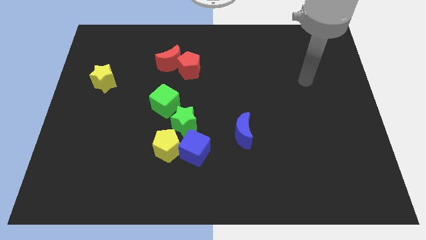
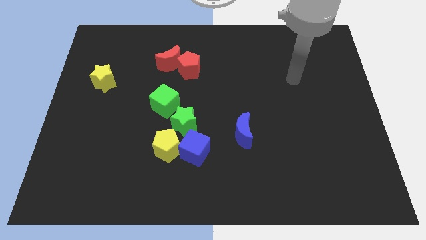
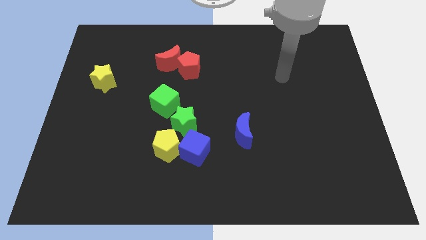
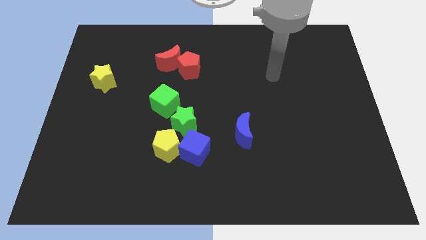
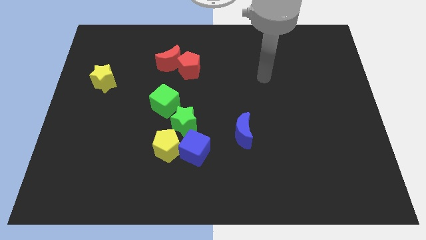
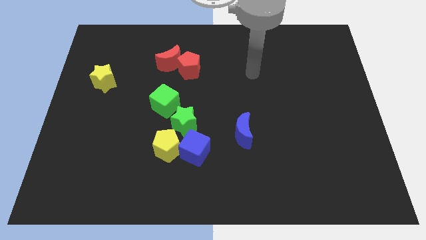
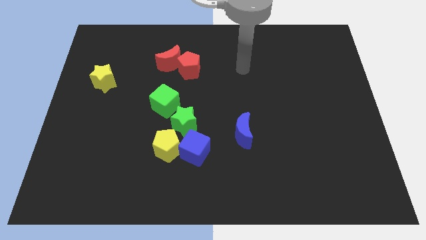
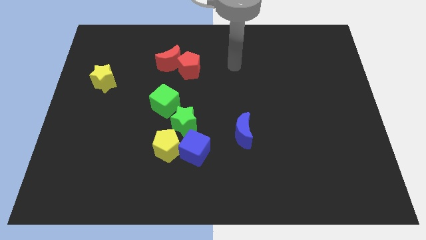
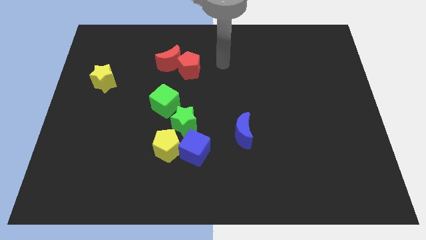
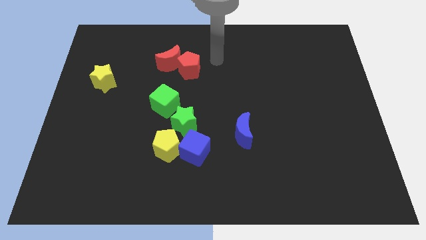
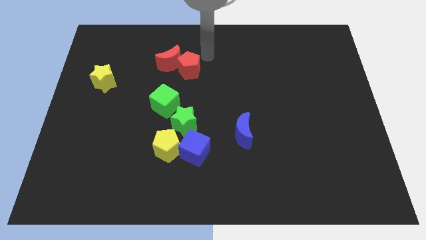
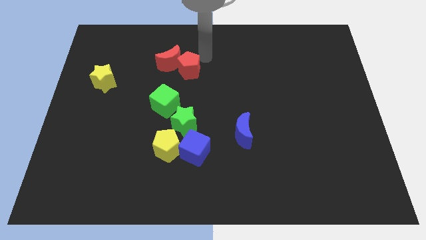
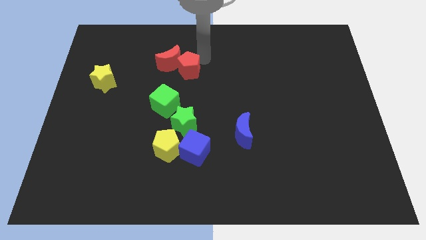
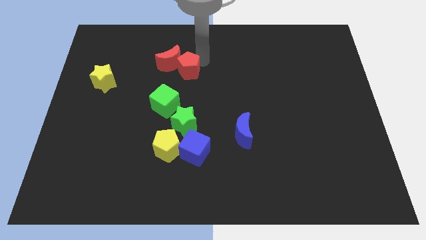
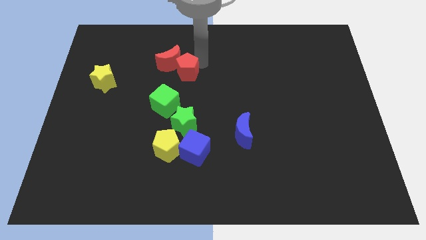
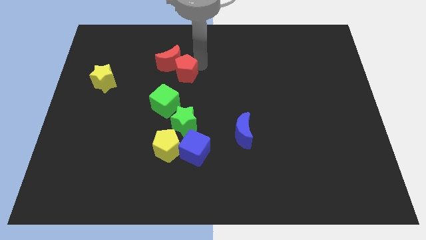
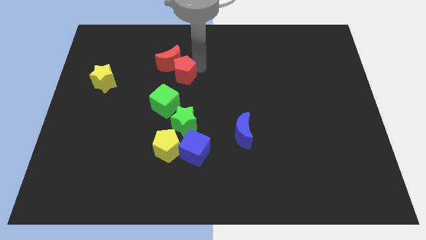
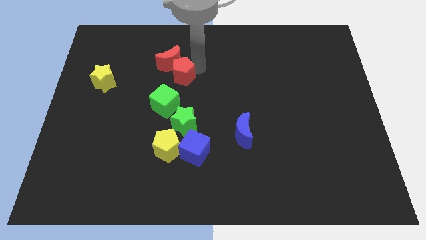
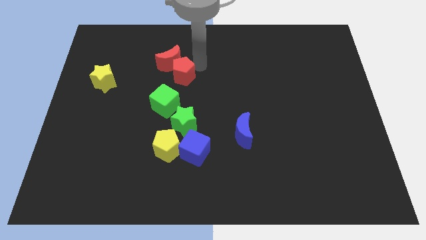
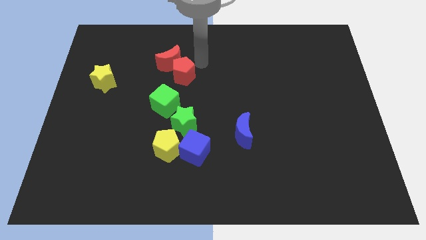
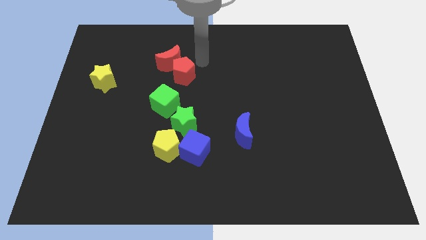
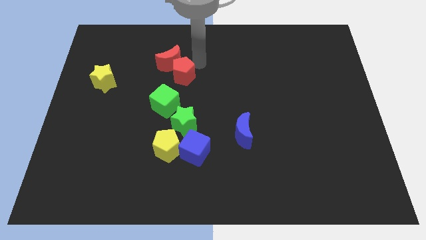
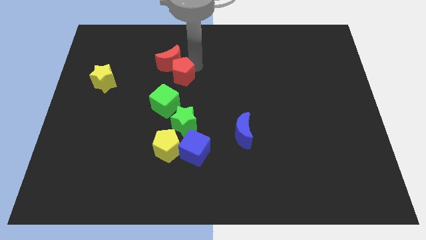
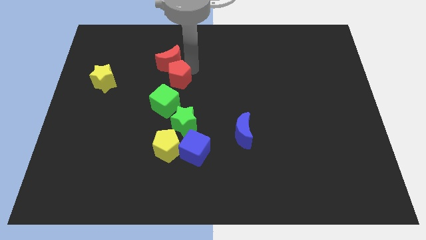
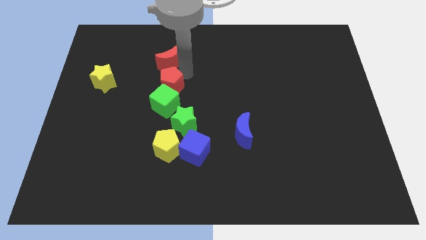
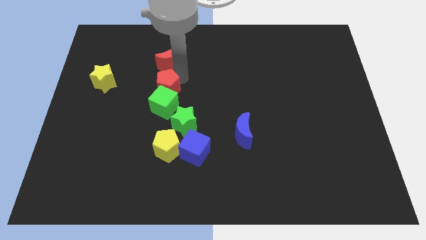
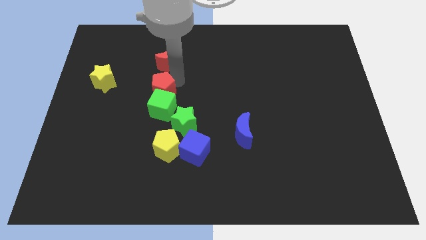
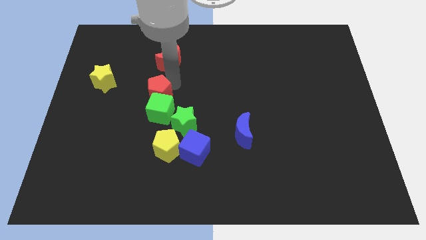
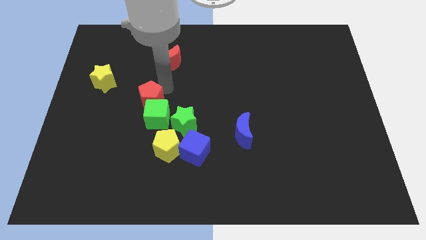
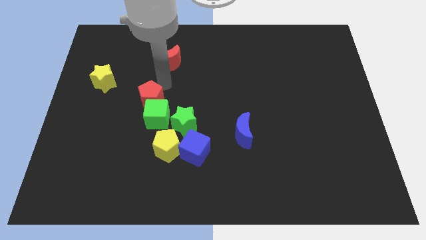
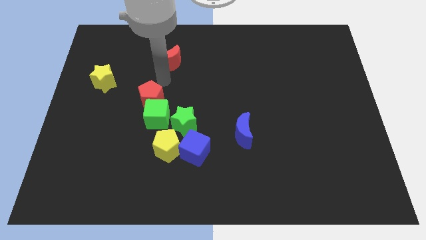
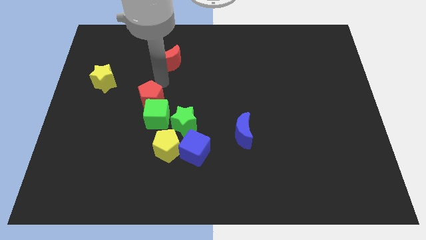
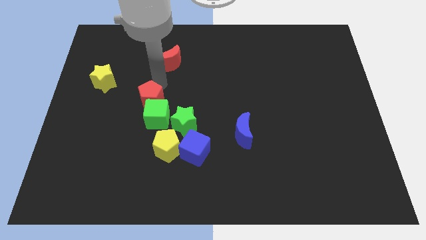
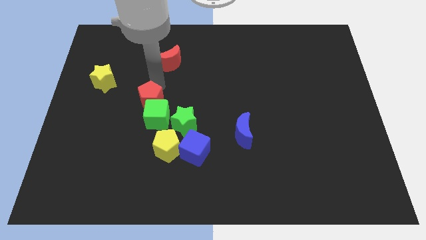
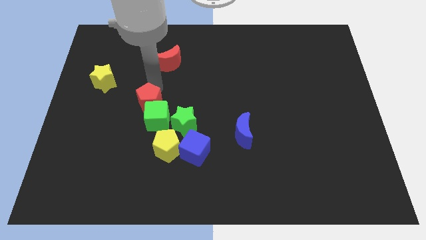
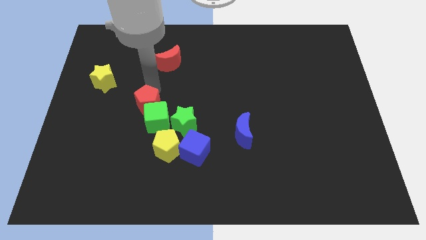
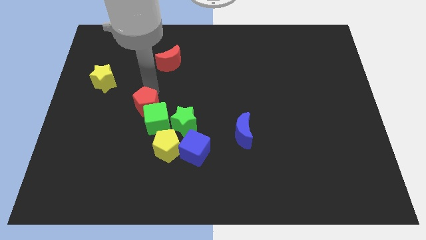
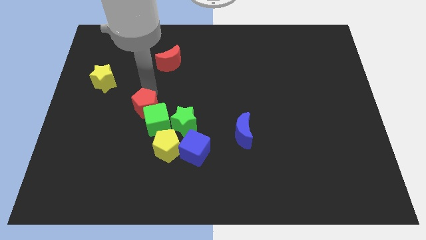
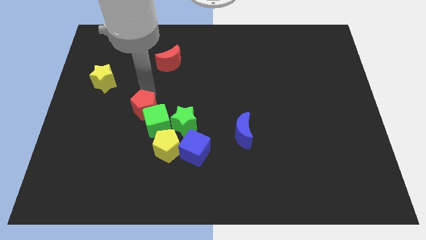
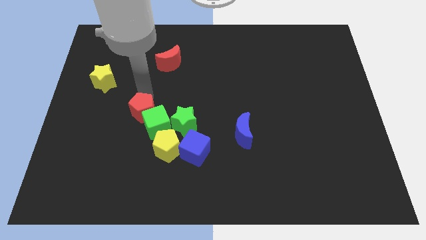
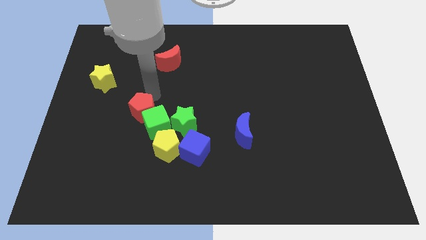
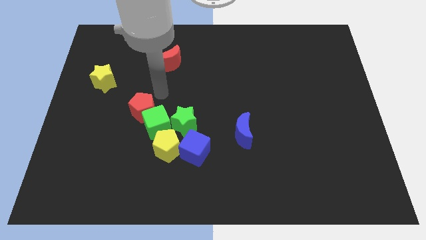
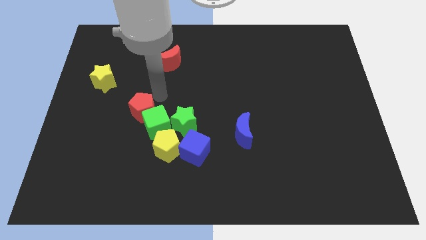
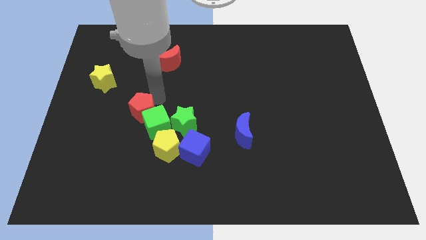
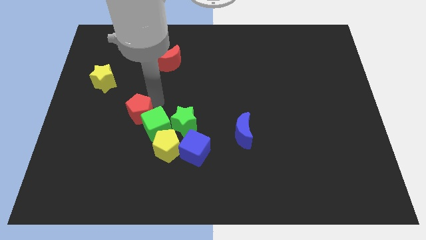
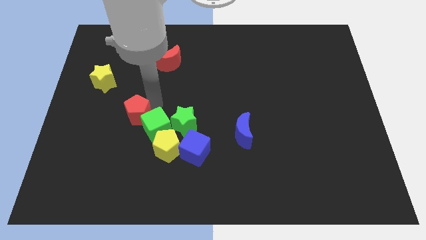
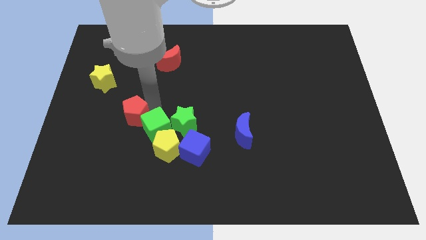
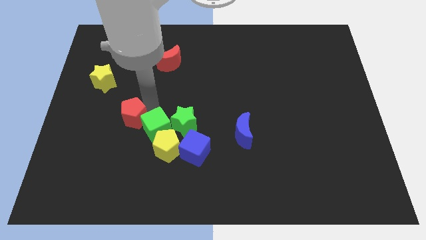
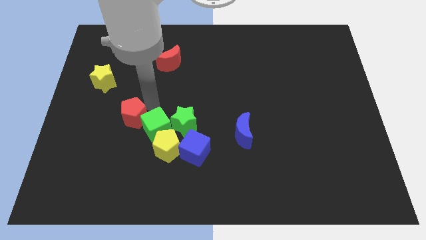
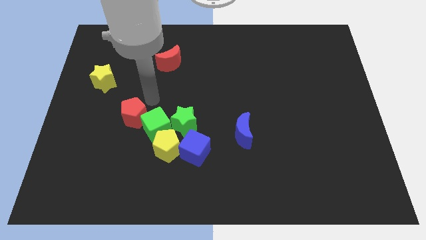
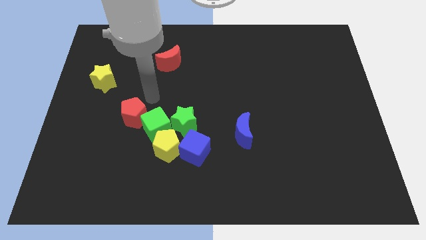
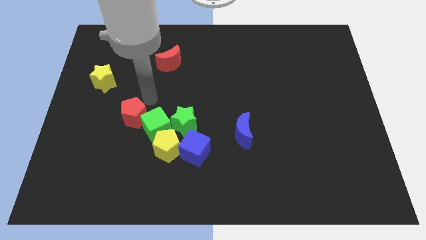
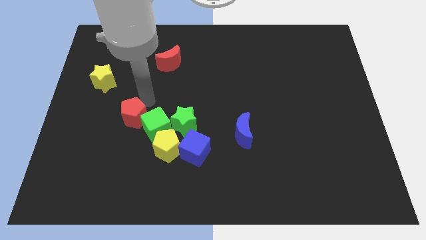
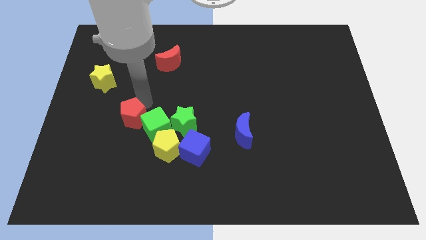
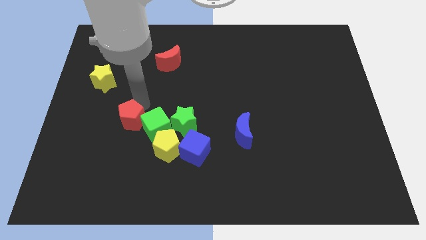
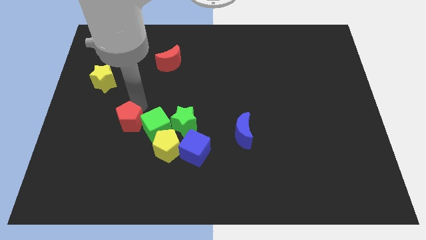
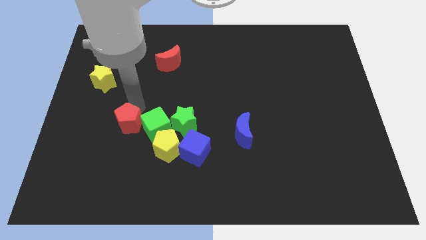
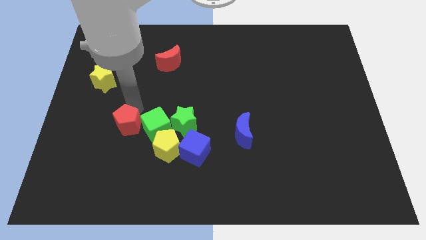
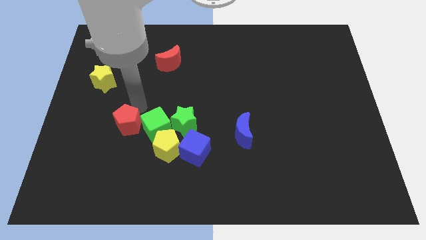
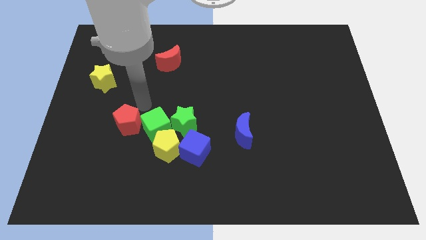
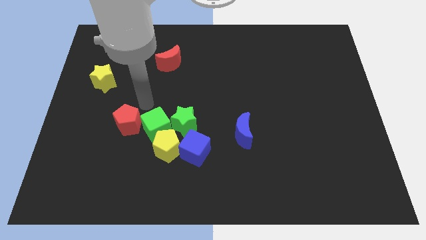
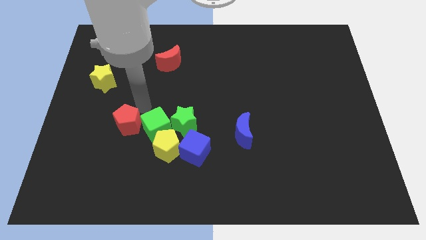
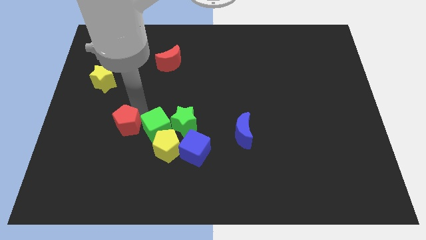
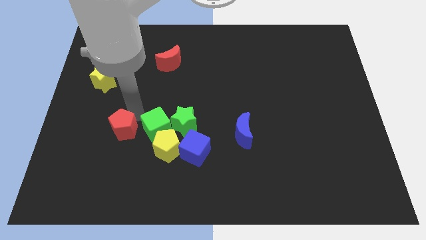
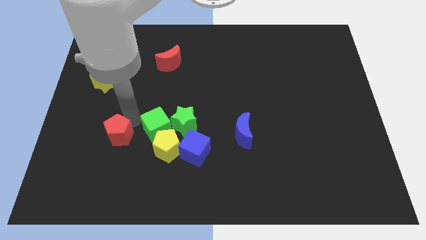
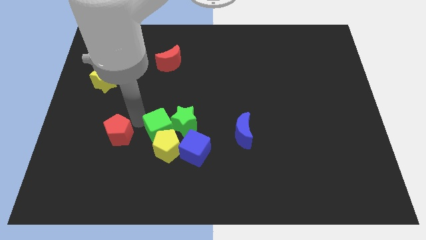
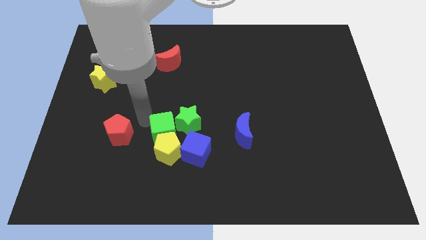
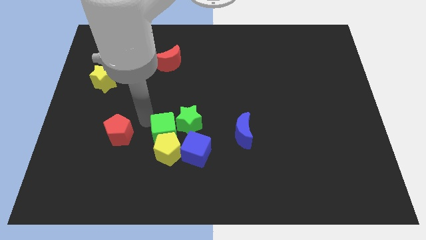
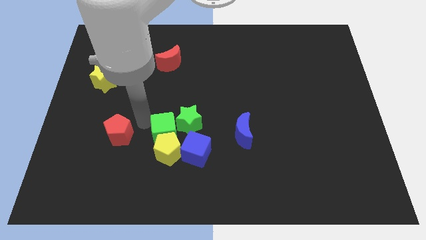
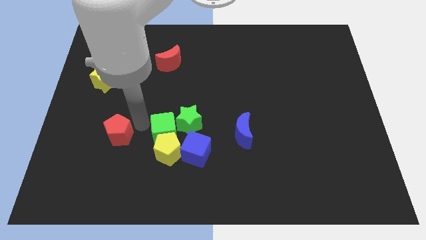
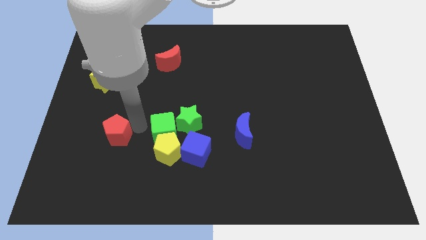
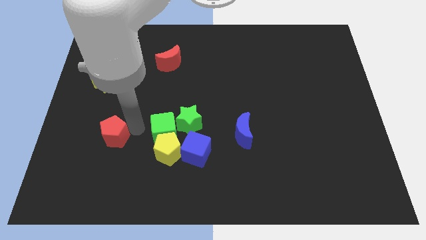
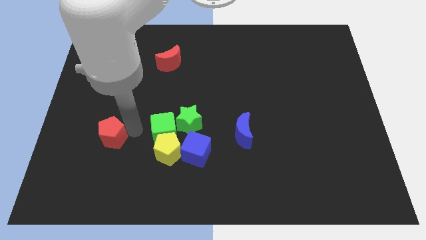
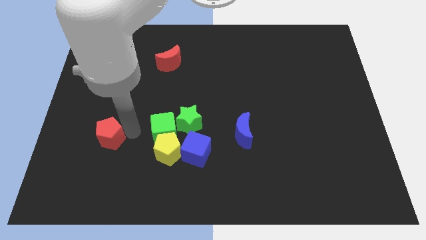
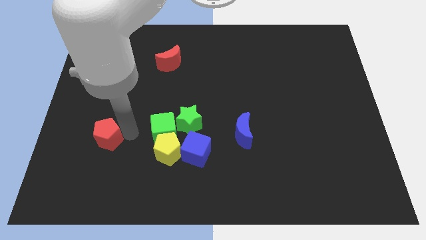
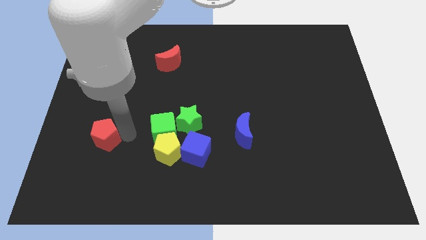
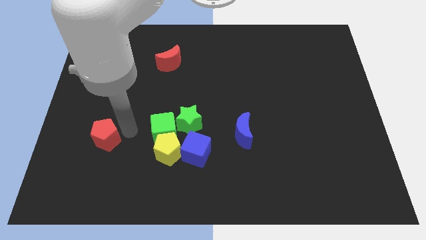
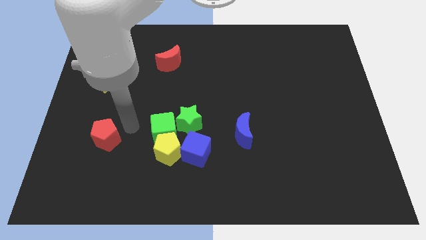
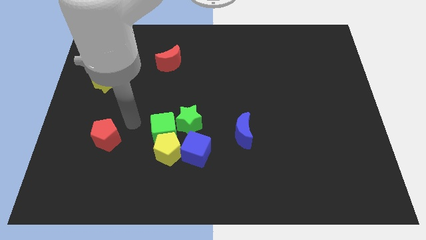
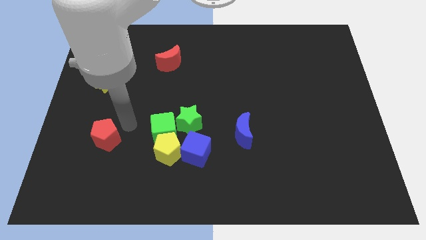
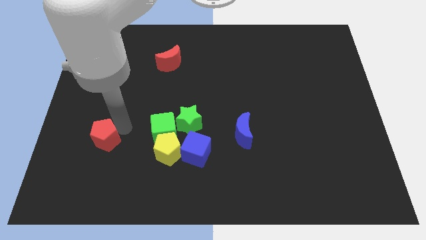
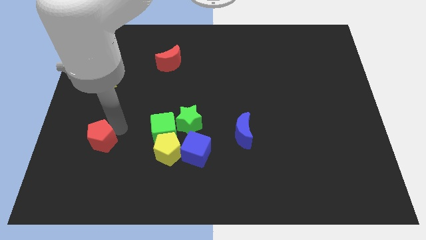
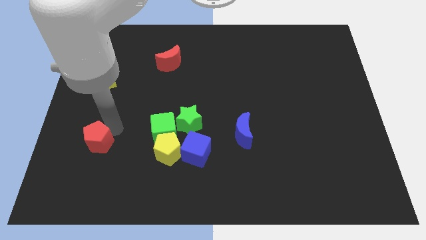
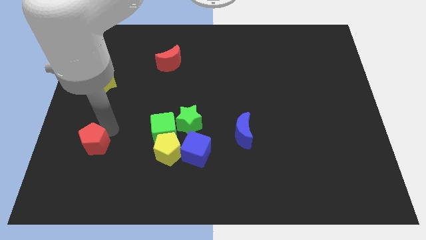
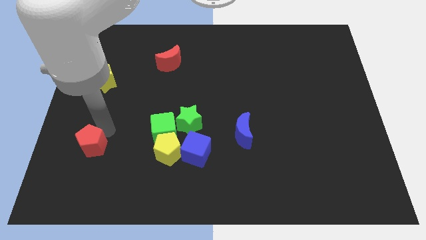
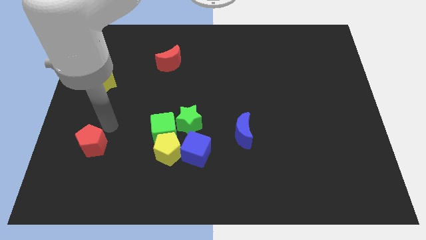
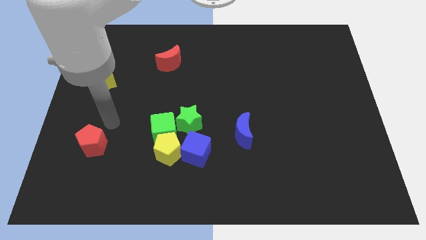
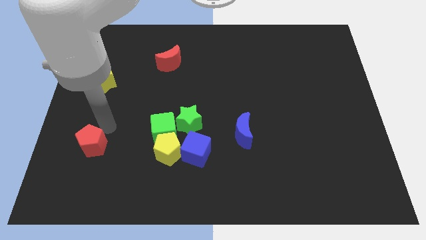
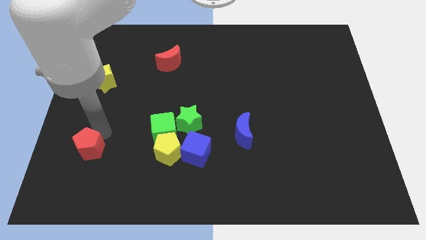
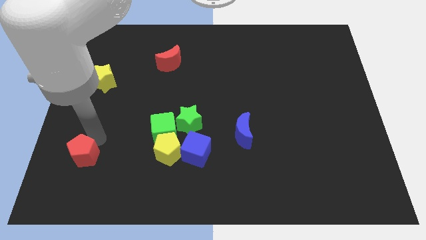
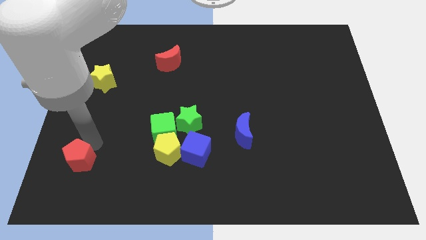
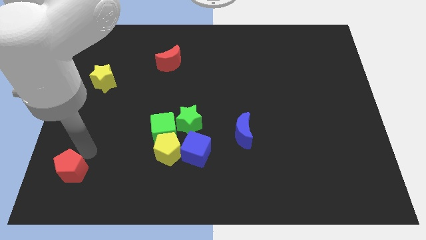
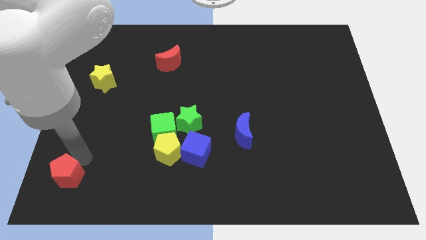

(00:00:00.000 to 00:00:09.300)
slide the red pentagon to the bottom left
